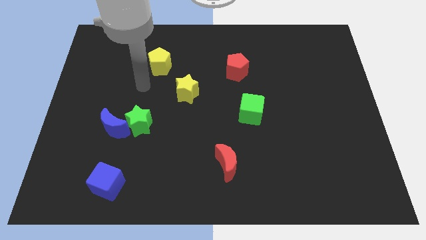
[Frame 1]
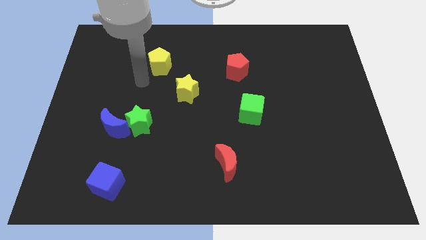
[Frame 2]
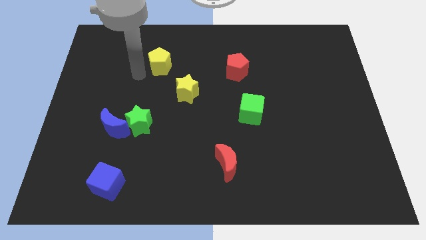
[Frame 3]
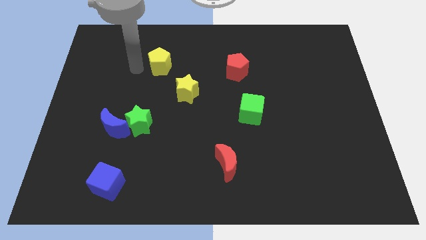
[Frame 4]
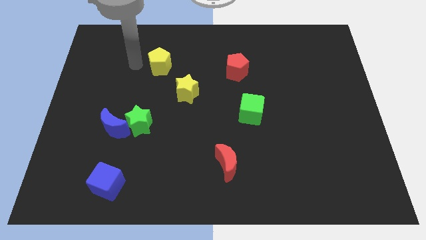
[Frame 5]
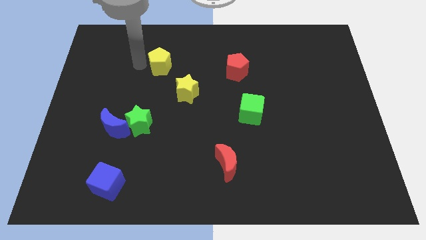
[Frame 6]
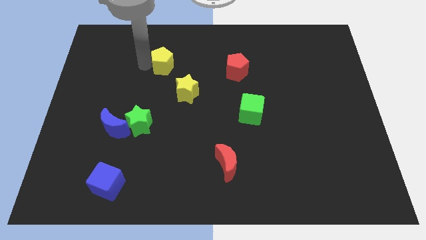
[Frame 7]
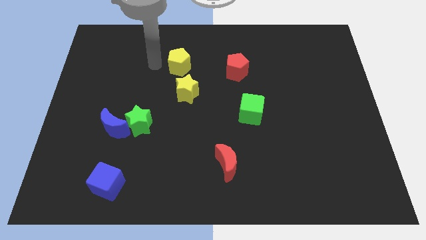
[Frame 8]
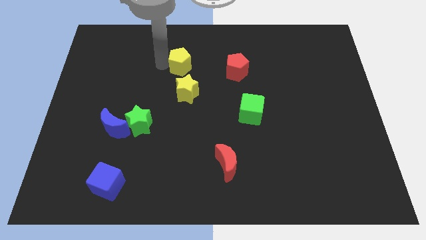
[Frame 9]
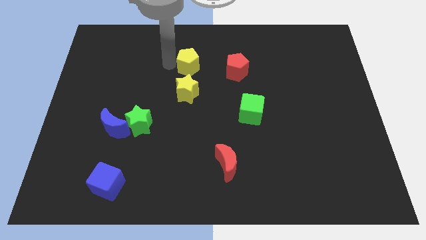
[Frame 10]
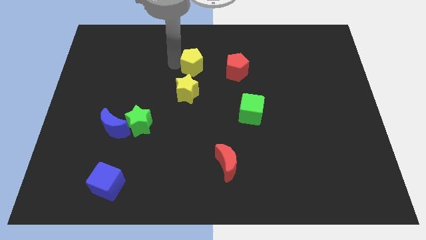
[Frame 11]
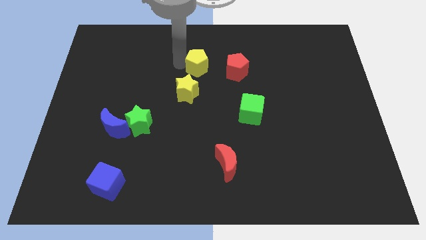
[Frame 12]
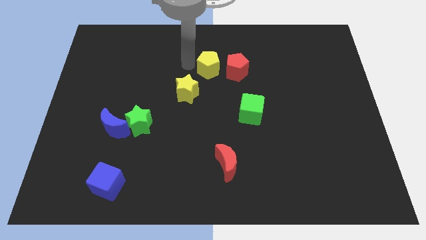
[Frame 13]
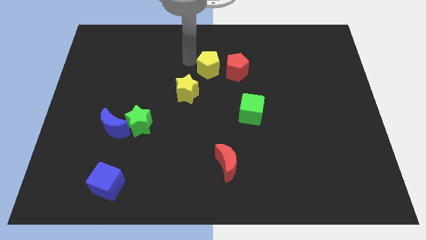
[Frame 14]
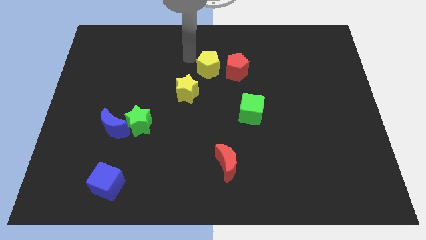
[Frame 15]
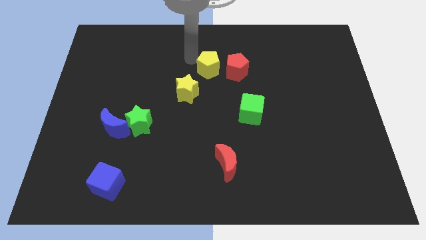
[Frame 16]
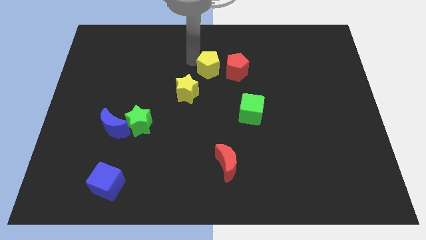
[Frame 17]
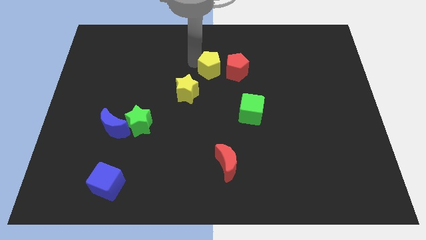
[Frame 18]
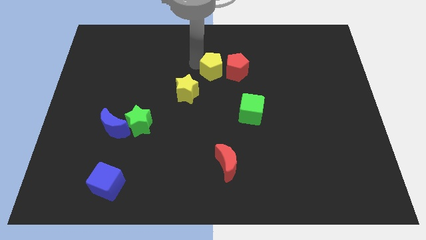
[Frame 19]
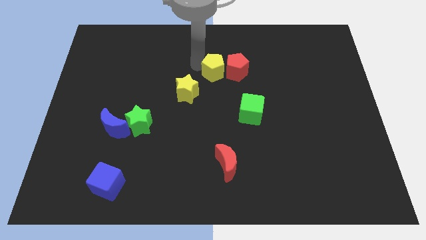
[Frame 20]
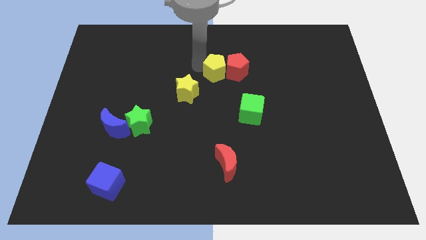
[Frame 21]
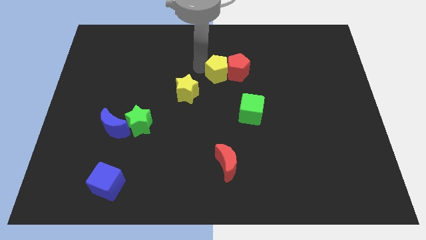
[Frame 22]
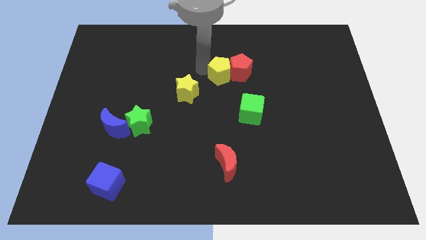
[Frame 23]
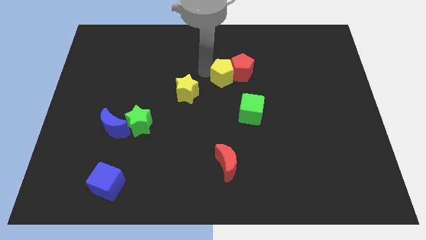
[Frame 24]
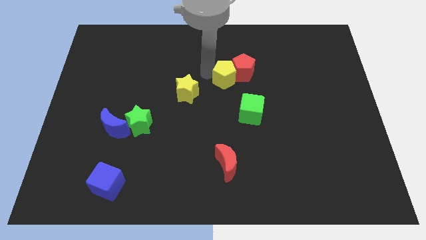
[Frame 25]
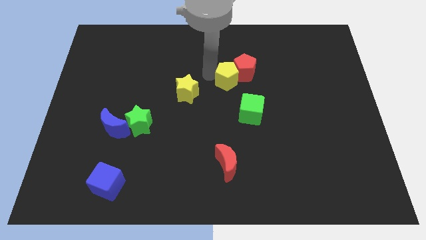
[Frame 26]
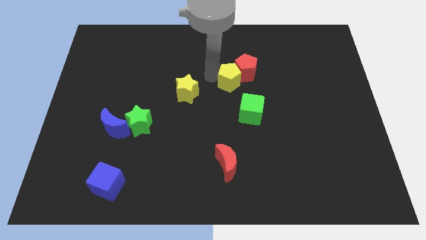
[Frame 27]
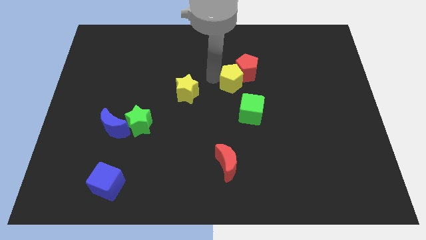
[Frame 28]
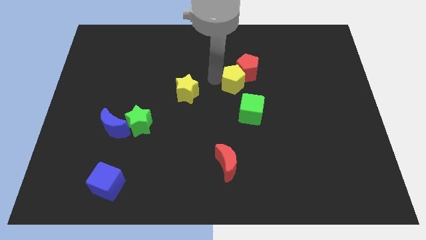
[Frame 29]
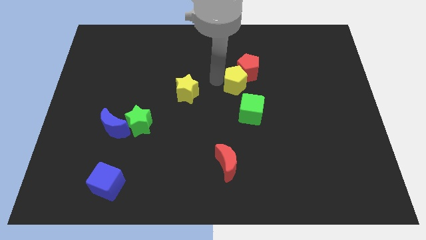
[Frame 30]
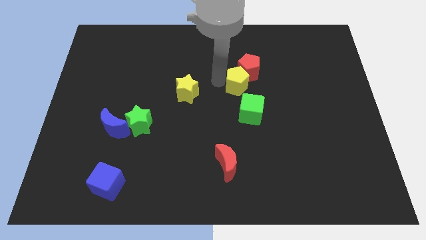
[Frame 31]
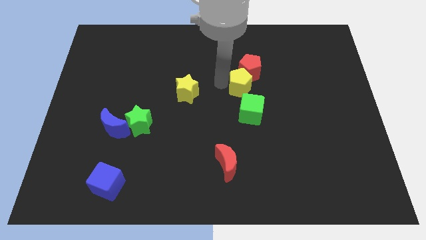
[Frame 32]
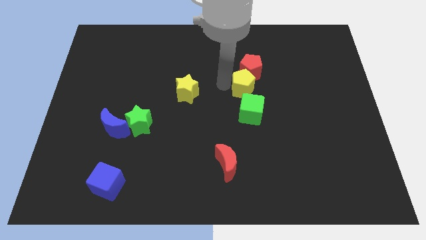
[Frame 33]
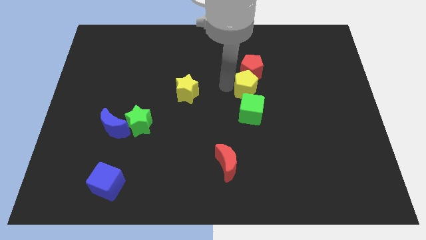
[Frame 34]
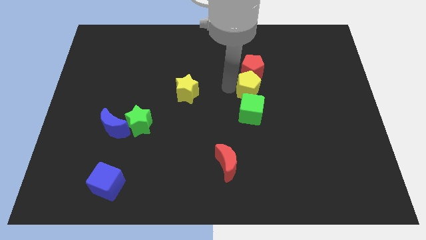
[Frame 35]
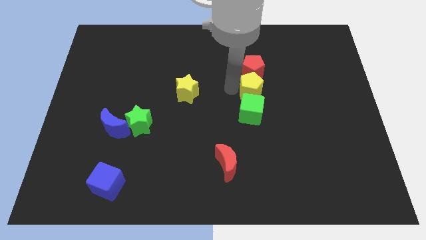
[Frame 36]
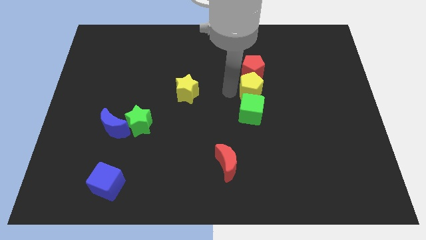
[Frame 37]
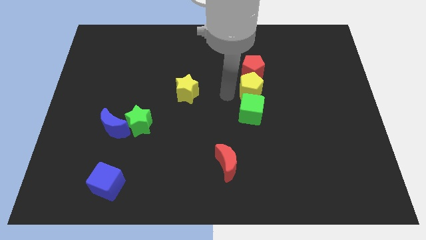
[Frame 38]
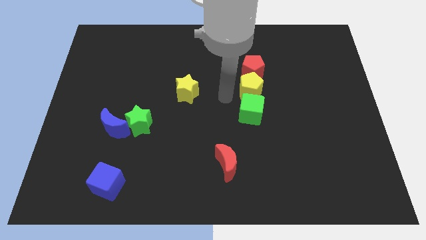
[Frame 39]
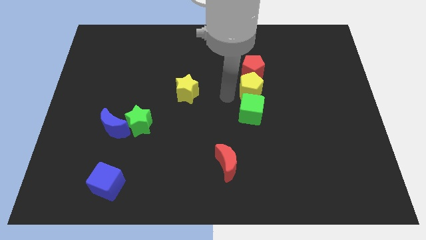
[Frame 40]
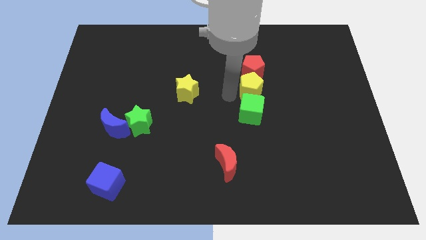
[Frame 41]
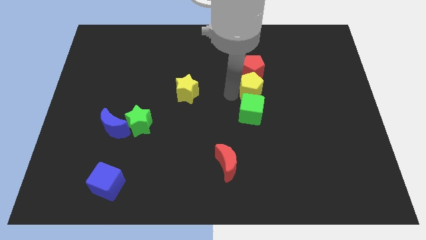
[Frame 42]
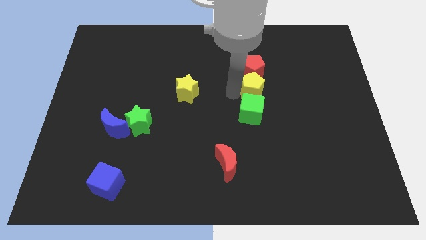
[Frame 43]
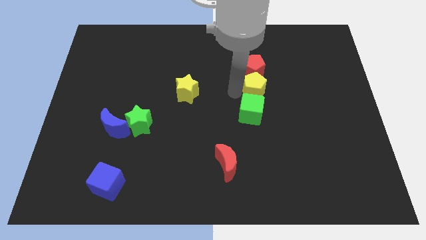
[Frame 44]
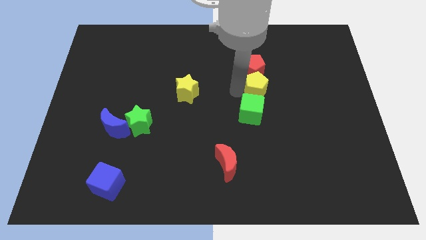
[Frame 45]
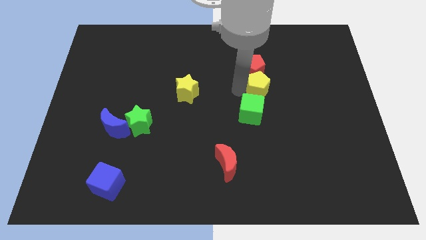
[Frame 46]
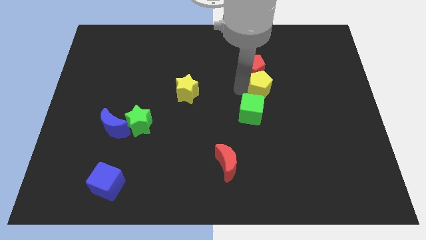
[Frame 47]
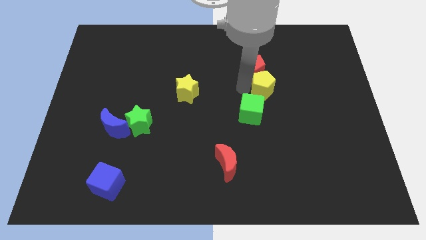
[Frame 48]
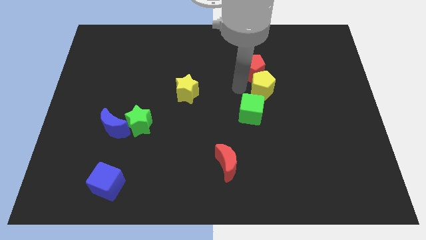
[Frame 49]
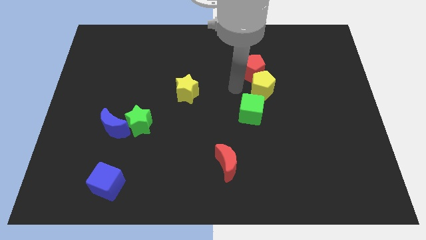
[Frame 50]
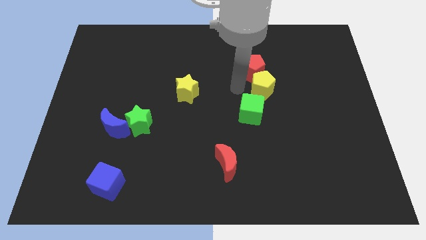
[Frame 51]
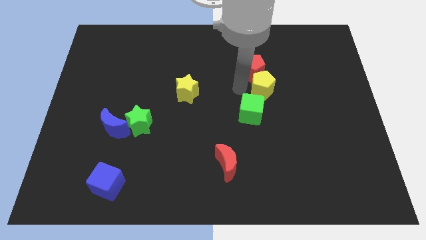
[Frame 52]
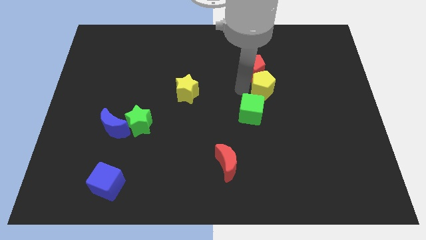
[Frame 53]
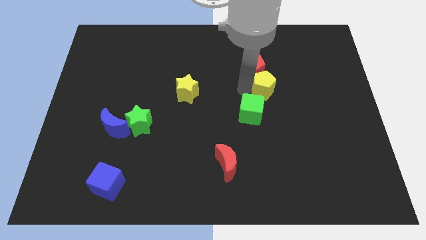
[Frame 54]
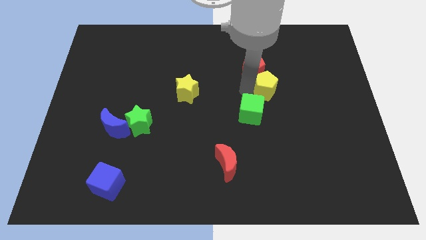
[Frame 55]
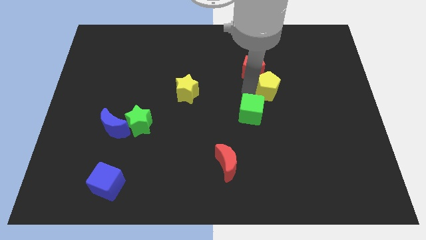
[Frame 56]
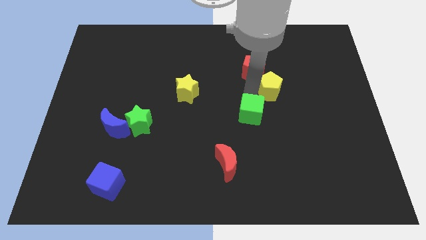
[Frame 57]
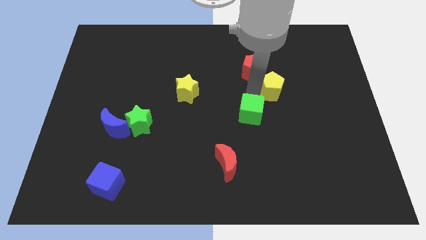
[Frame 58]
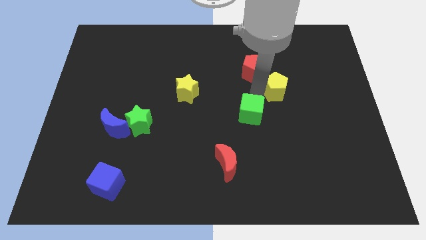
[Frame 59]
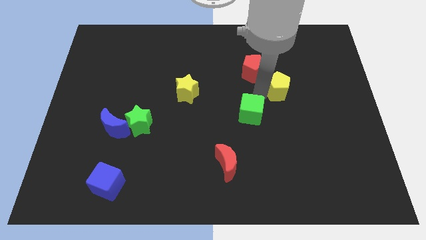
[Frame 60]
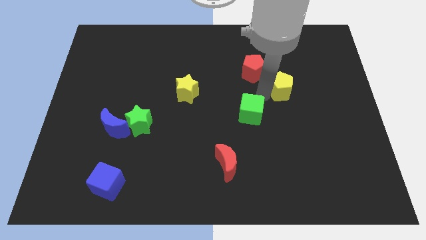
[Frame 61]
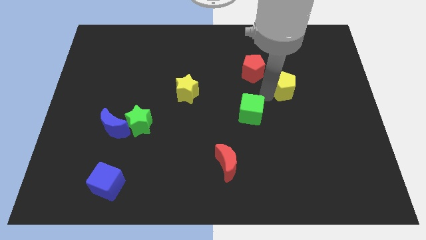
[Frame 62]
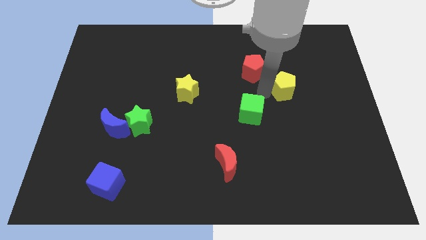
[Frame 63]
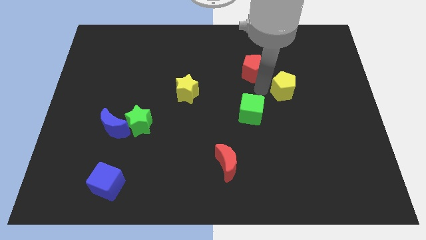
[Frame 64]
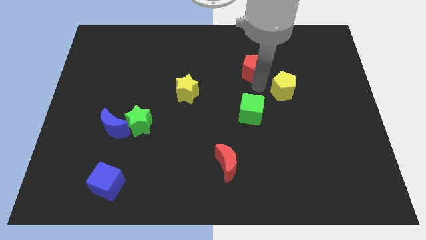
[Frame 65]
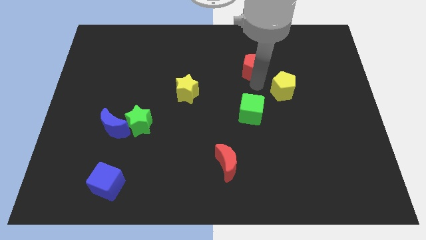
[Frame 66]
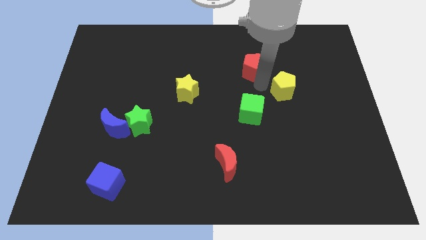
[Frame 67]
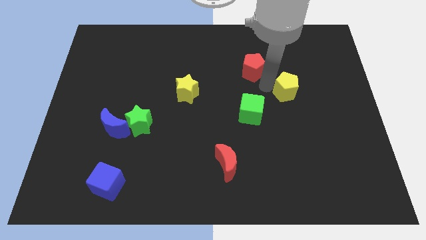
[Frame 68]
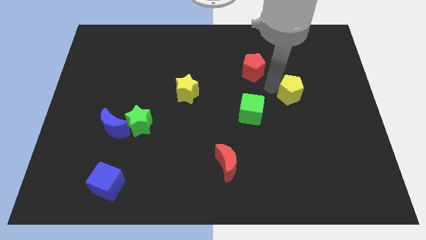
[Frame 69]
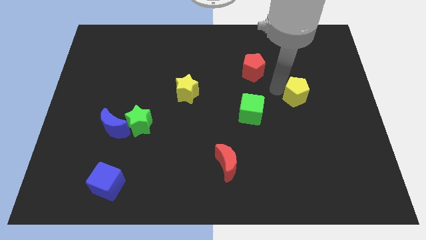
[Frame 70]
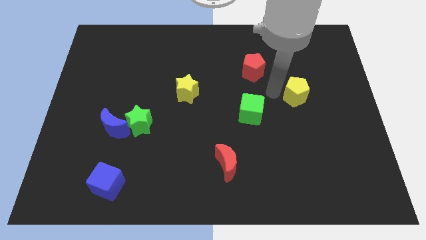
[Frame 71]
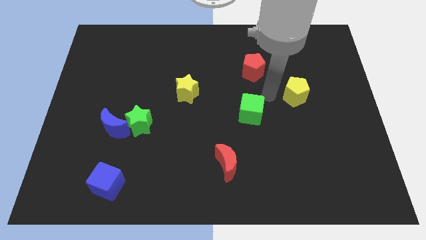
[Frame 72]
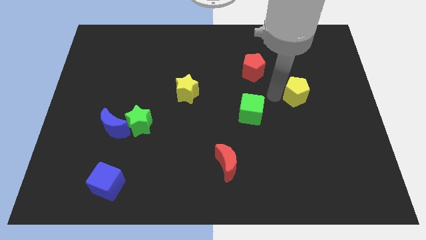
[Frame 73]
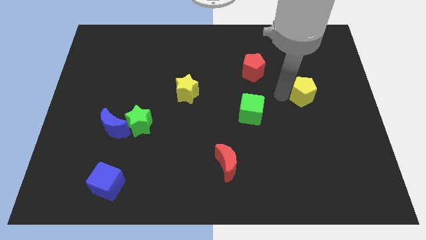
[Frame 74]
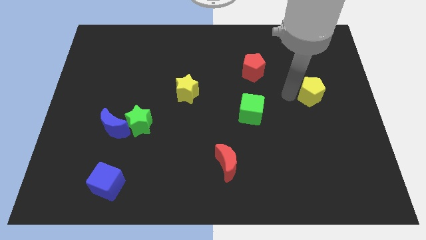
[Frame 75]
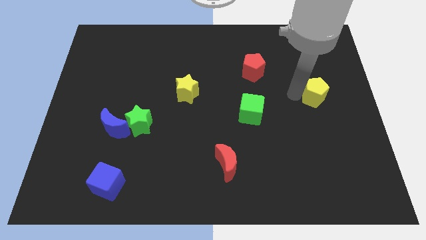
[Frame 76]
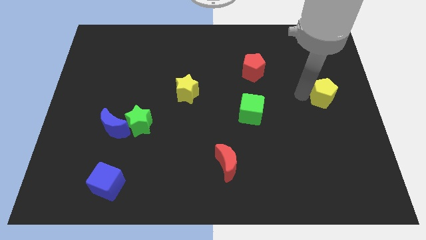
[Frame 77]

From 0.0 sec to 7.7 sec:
push the yellow pentagon to the right side
